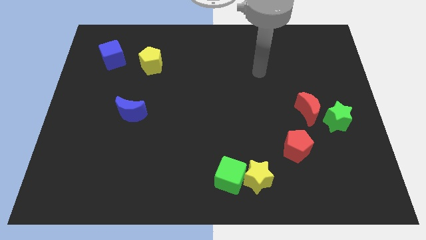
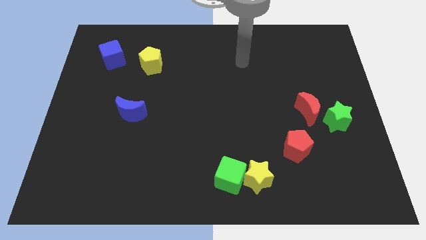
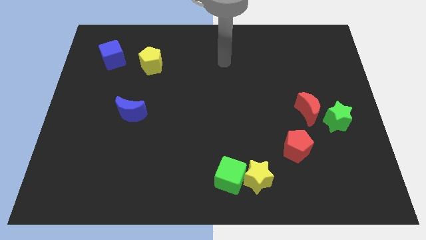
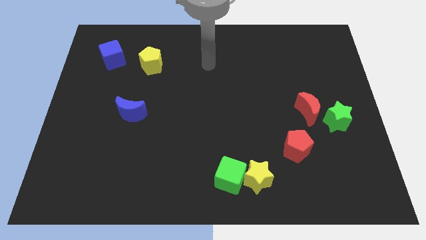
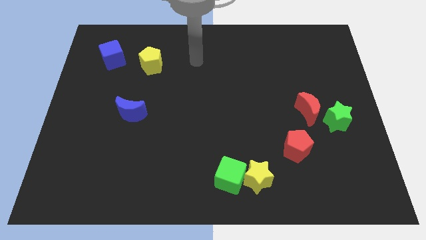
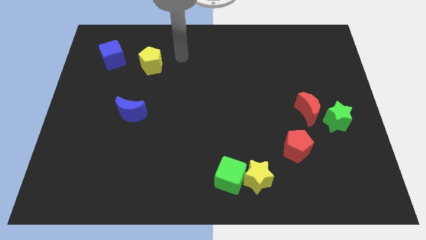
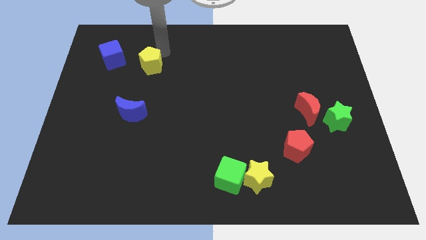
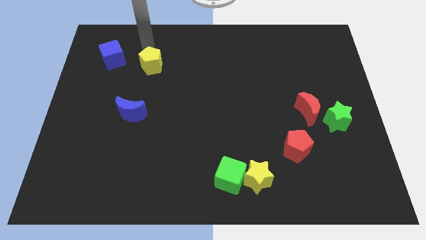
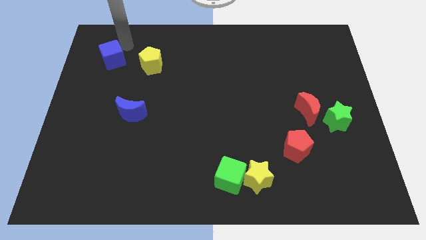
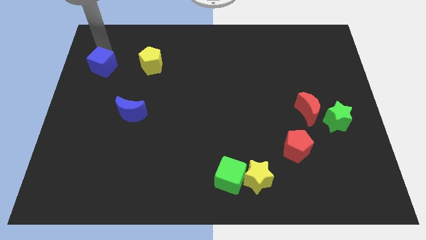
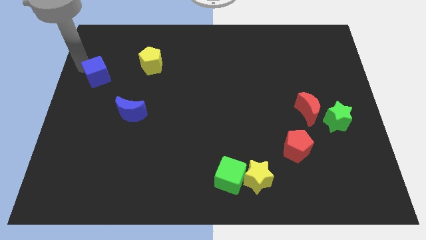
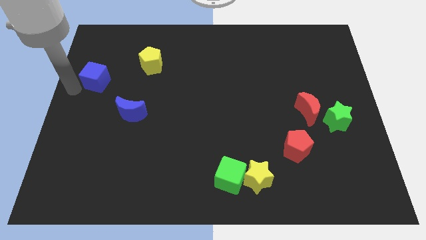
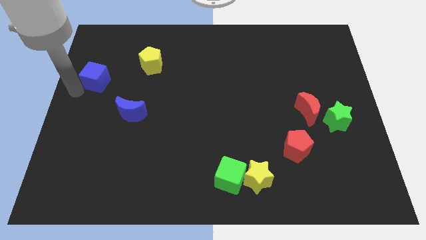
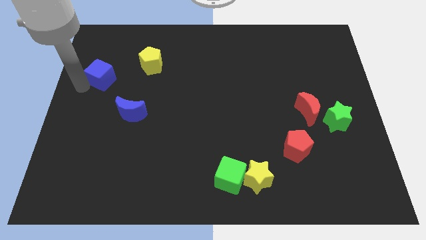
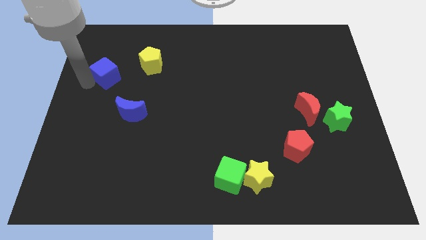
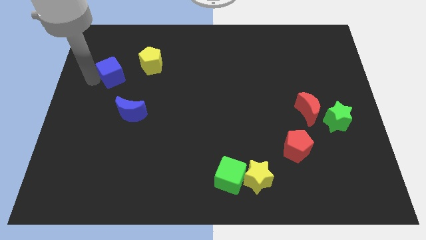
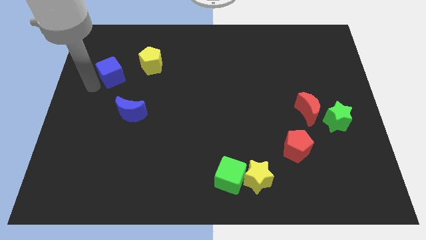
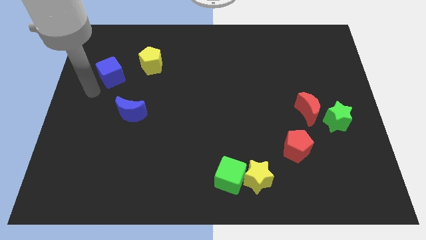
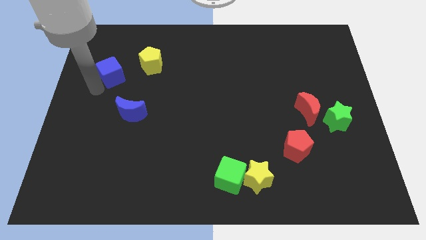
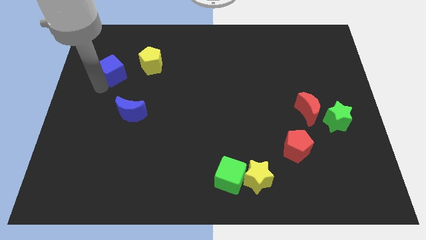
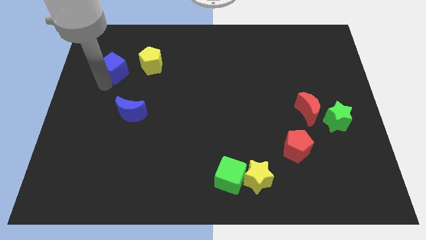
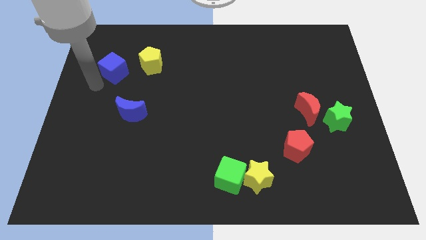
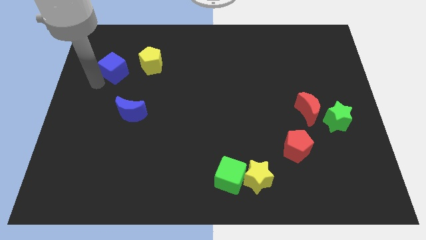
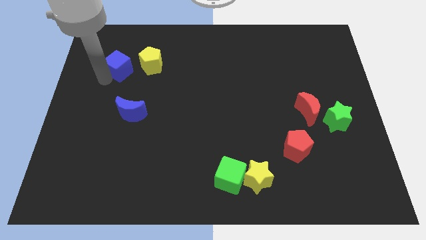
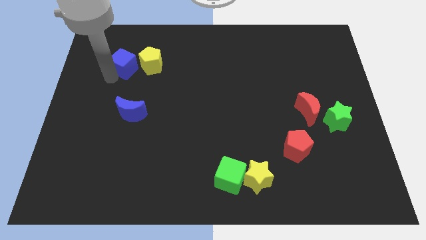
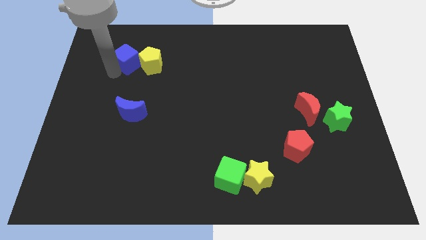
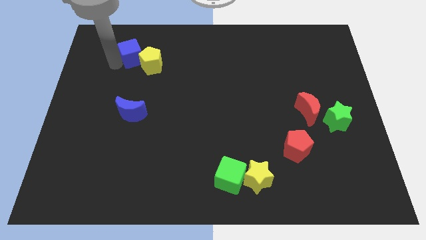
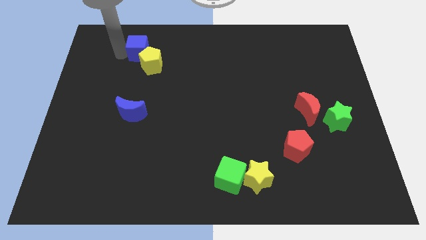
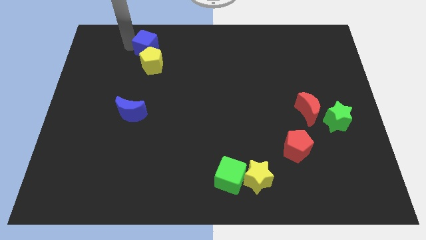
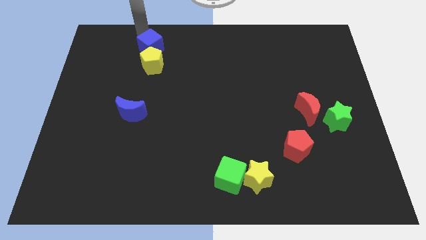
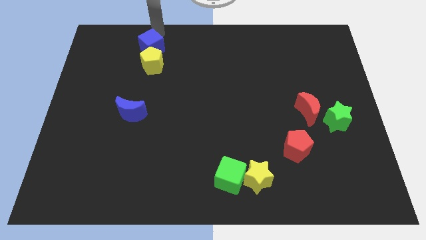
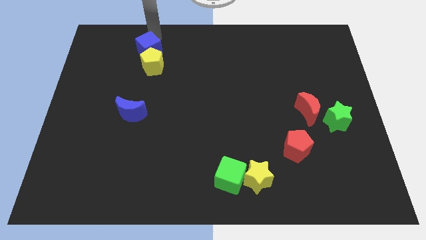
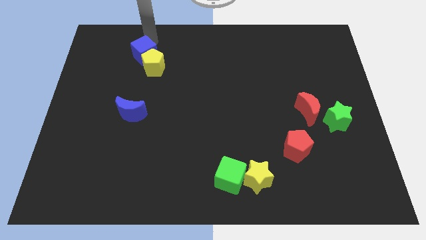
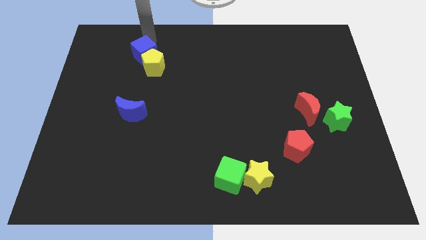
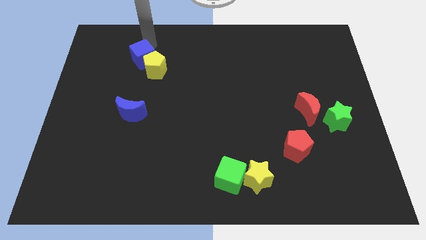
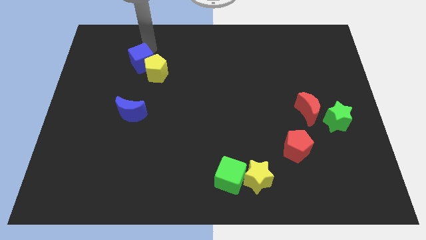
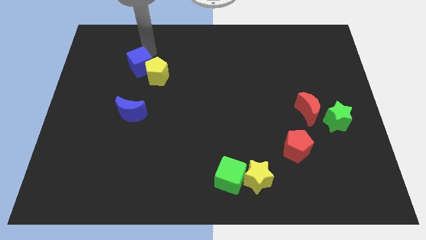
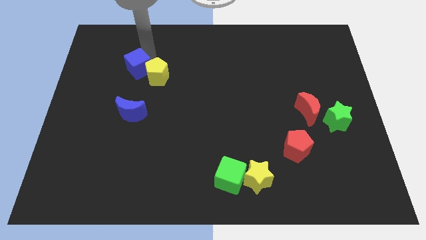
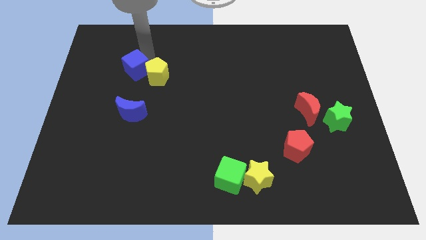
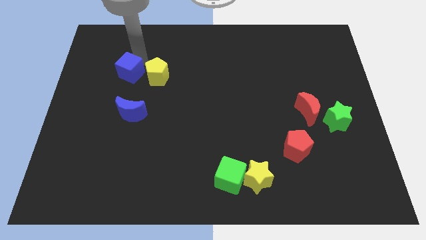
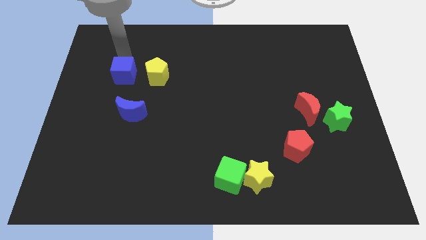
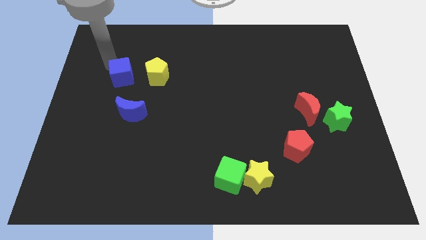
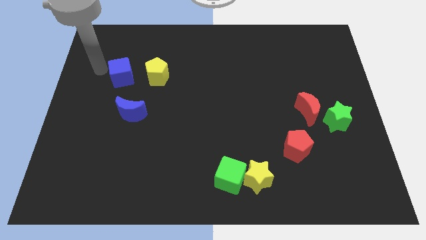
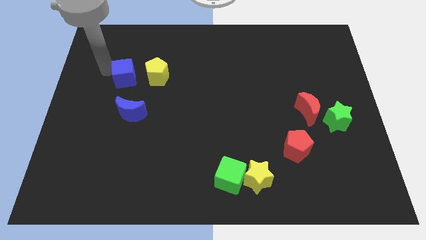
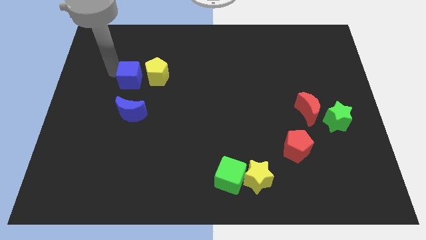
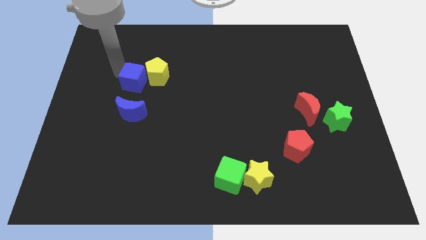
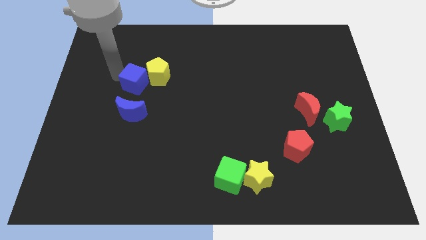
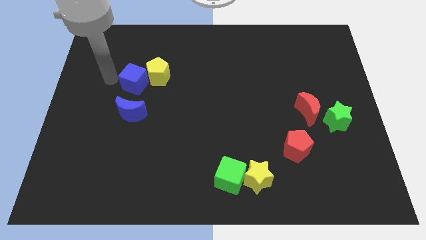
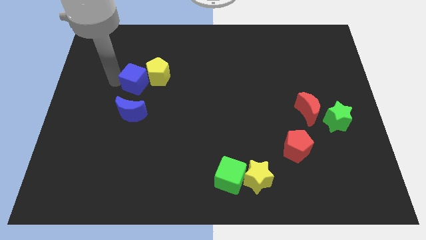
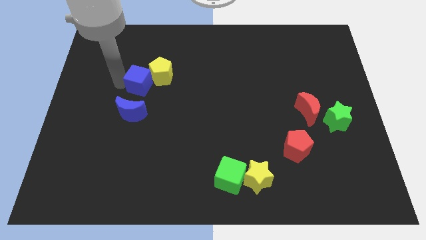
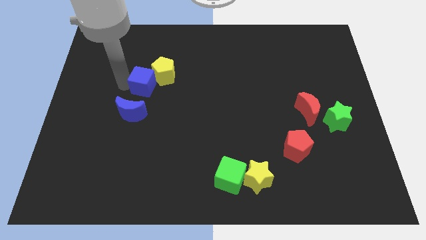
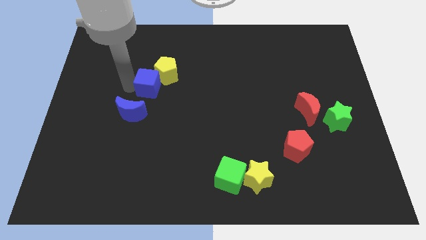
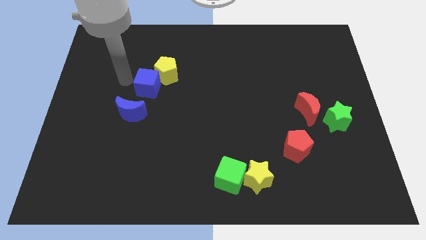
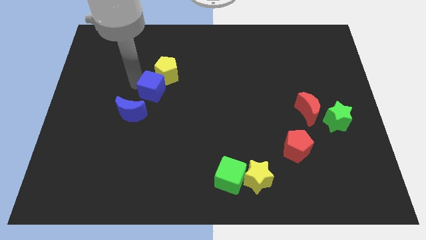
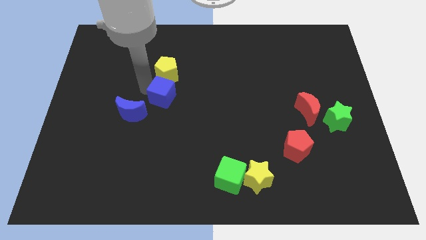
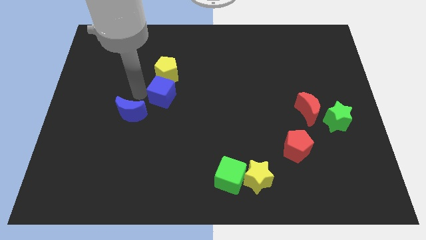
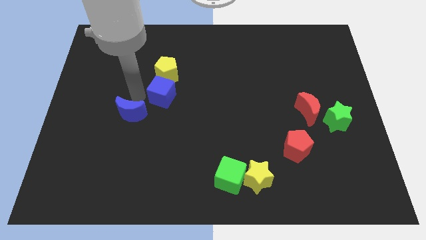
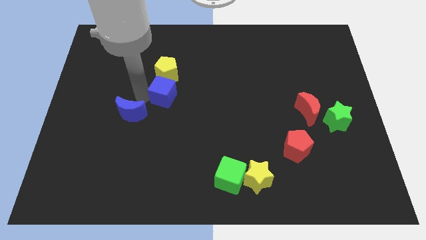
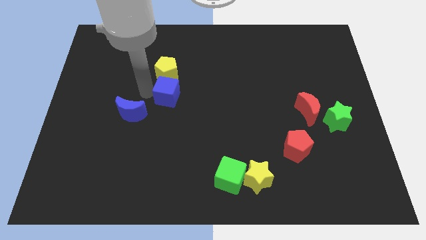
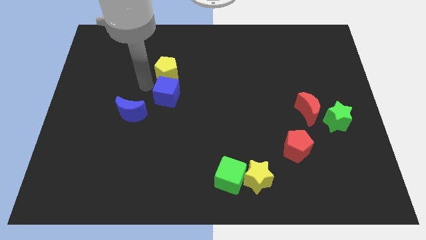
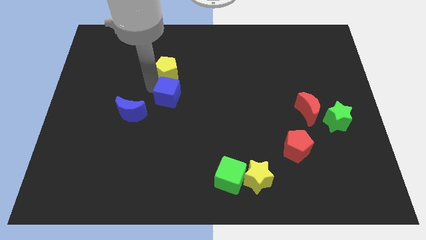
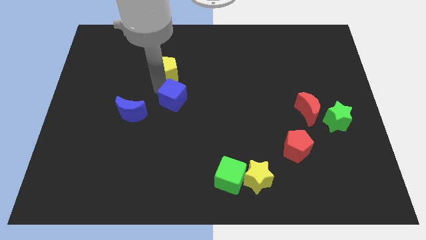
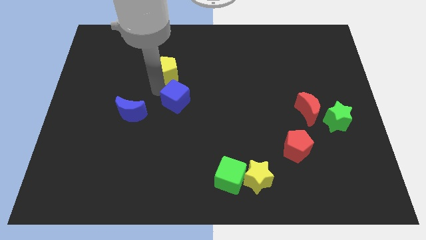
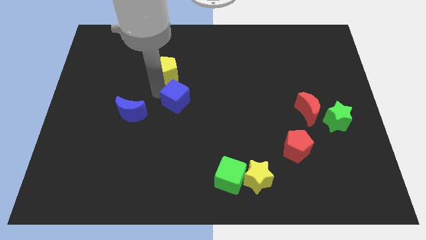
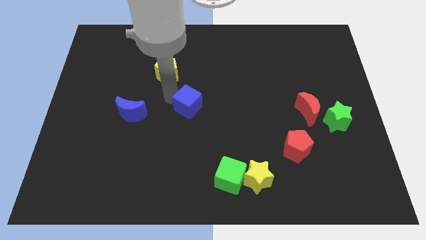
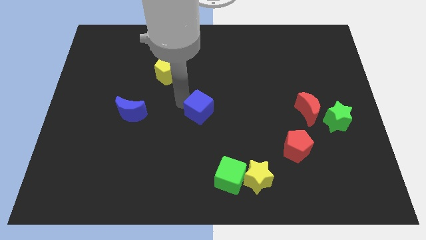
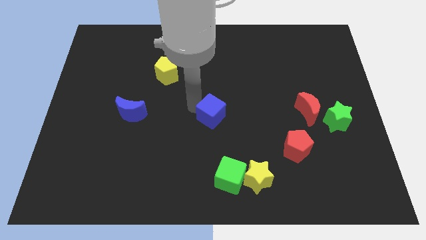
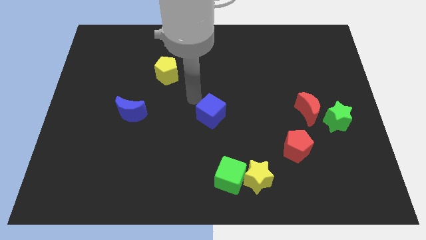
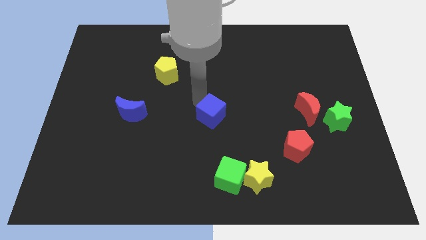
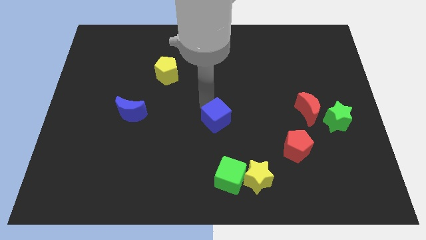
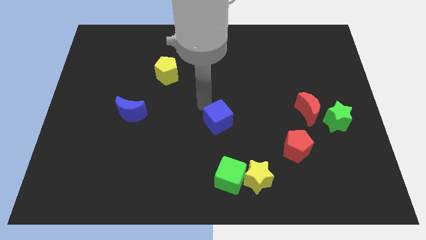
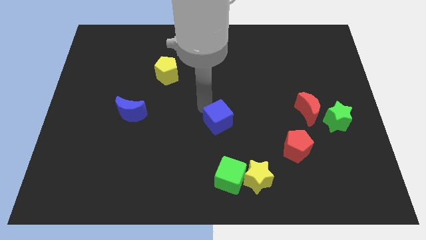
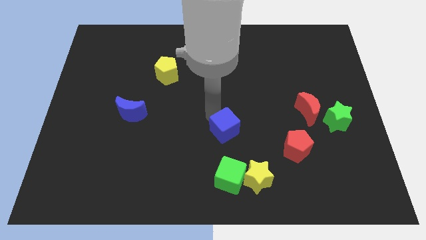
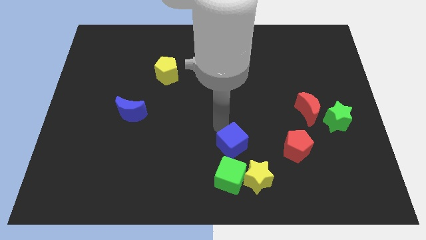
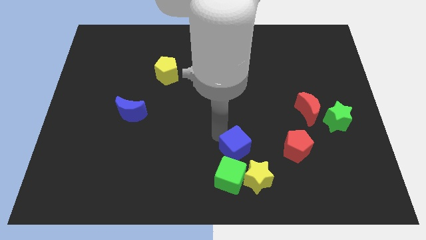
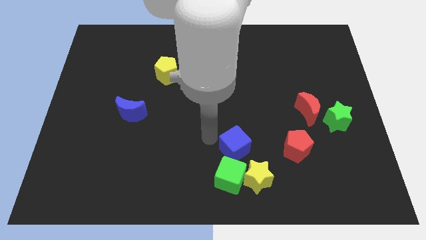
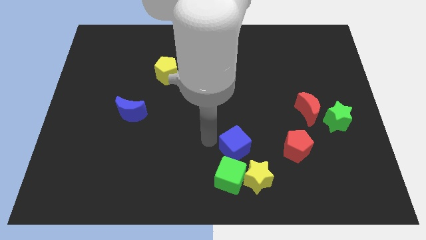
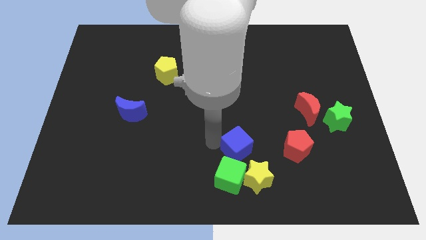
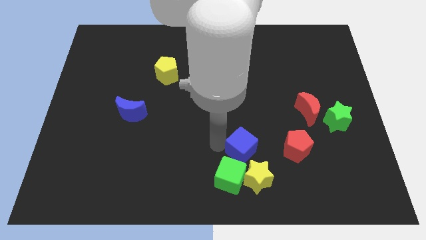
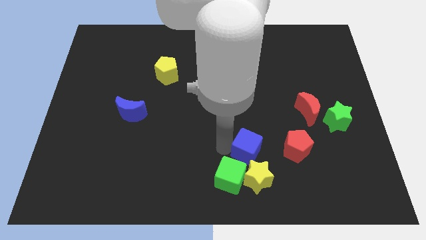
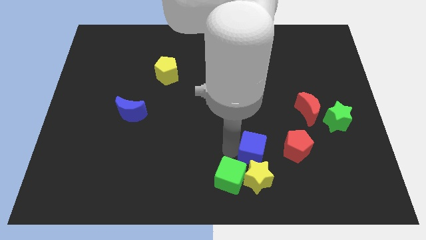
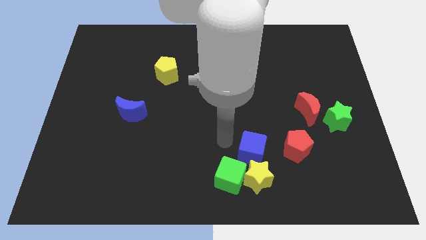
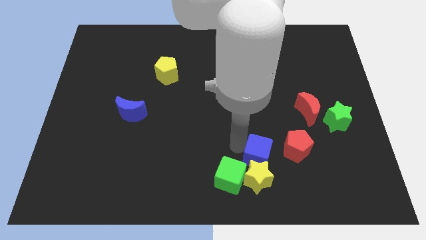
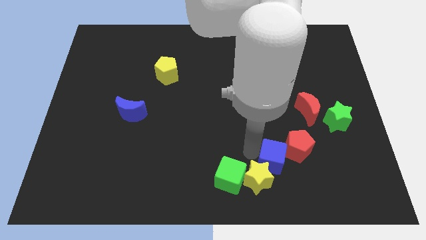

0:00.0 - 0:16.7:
move the blue cube right of the yellow star
